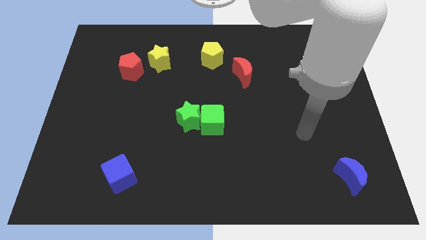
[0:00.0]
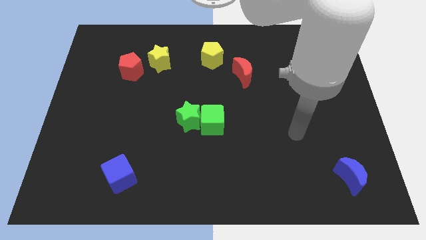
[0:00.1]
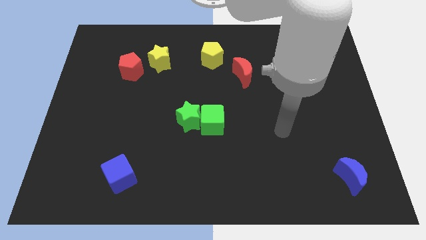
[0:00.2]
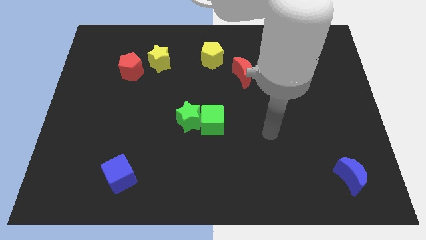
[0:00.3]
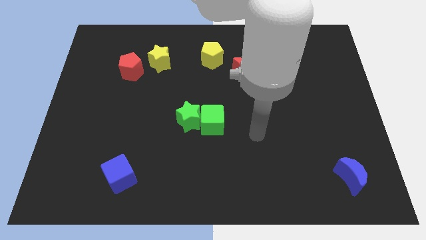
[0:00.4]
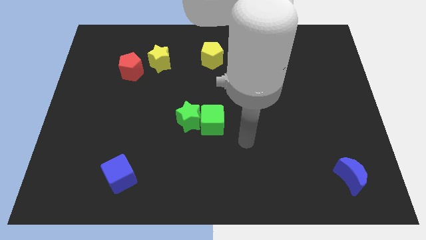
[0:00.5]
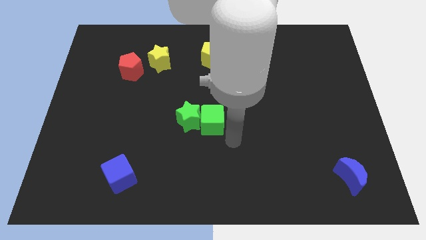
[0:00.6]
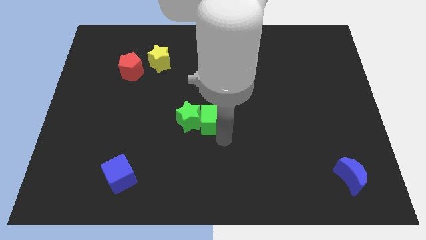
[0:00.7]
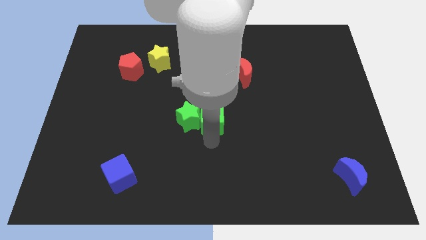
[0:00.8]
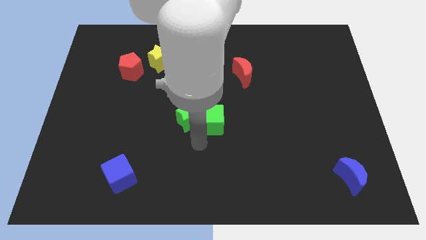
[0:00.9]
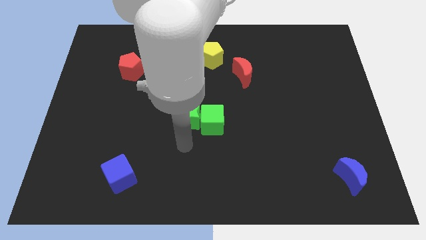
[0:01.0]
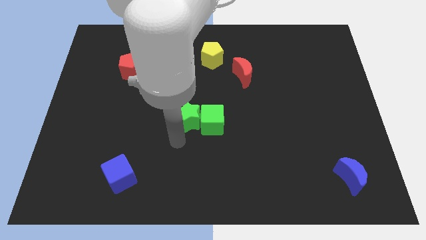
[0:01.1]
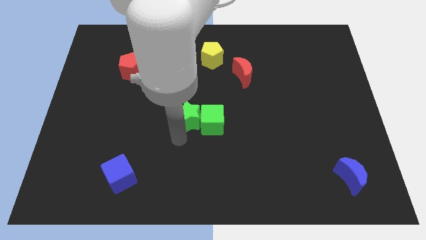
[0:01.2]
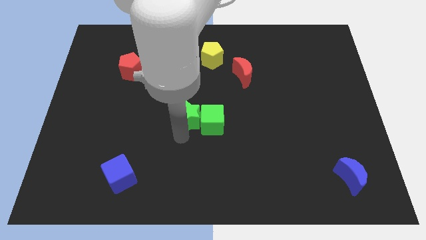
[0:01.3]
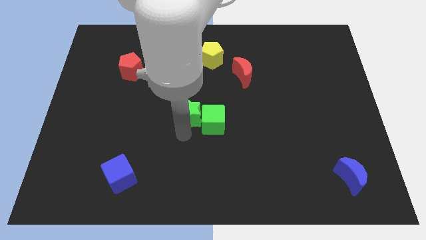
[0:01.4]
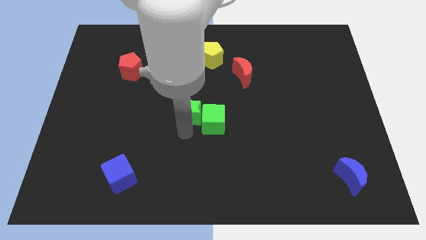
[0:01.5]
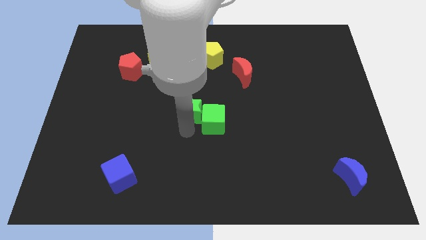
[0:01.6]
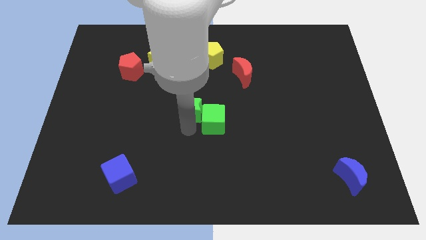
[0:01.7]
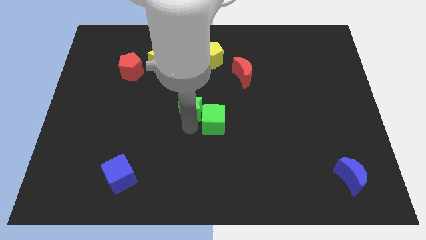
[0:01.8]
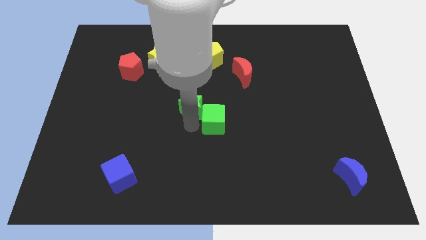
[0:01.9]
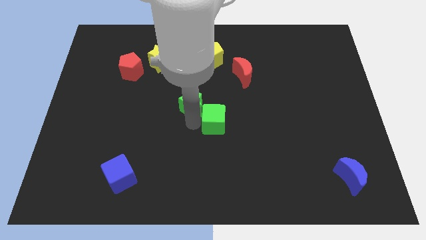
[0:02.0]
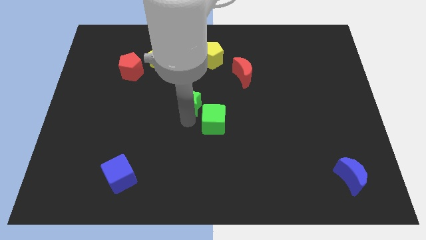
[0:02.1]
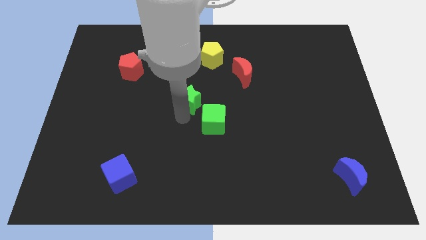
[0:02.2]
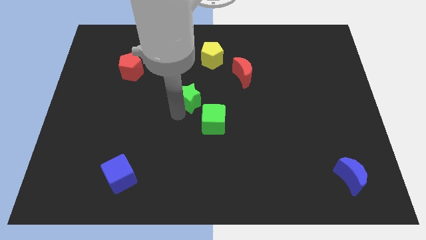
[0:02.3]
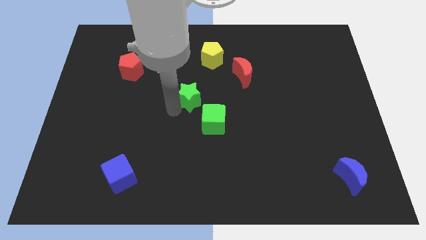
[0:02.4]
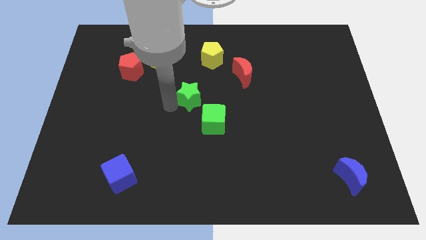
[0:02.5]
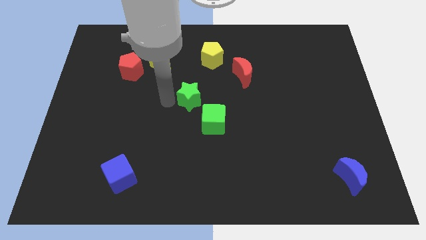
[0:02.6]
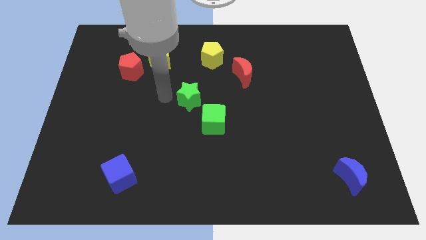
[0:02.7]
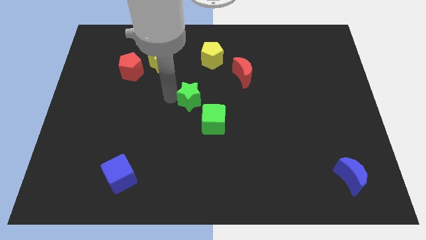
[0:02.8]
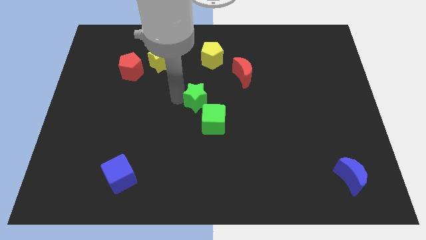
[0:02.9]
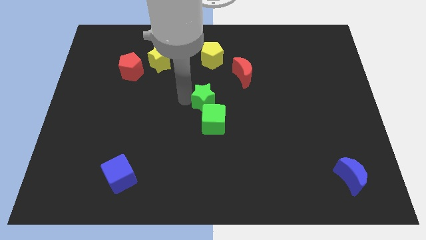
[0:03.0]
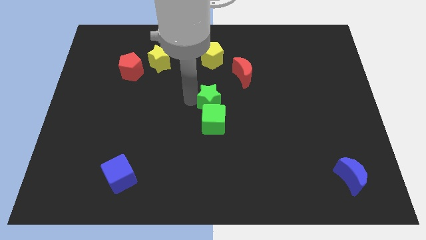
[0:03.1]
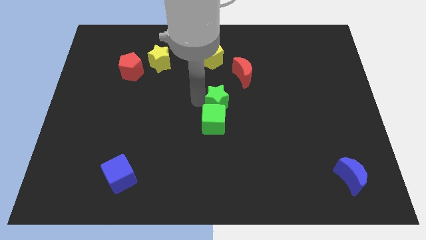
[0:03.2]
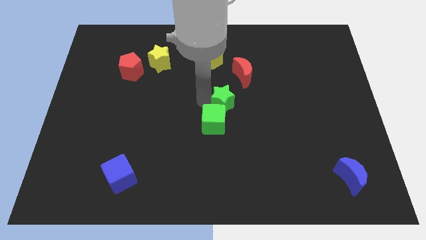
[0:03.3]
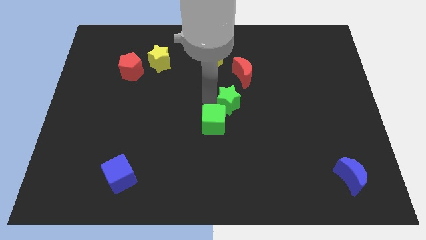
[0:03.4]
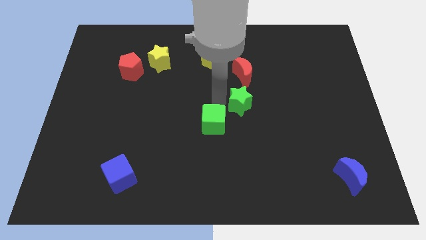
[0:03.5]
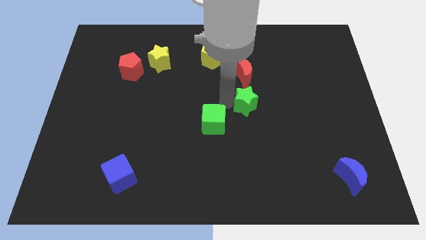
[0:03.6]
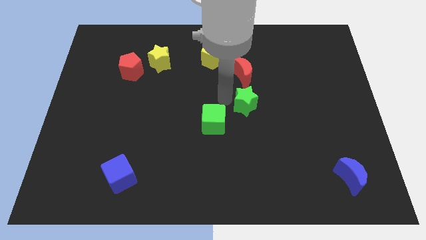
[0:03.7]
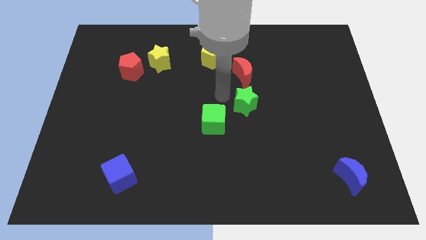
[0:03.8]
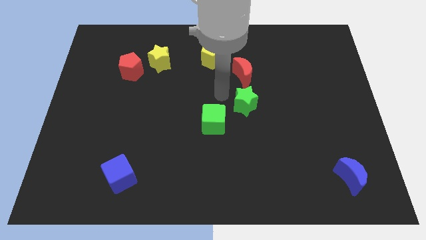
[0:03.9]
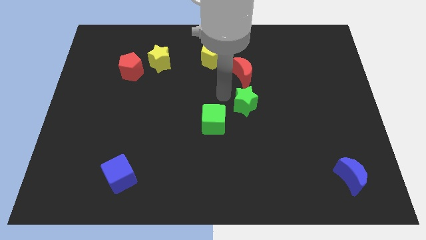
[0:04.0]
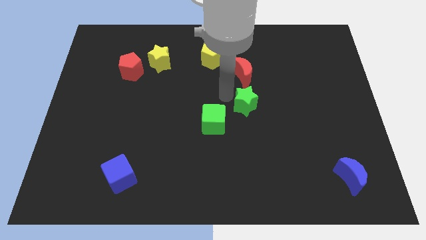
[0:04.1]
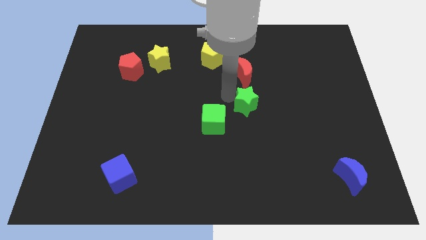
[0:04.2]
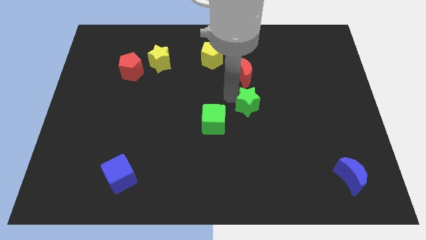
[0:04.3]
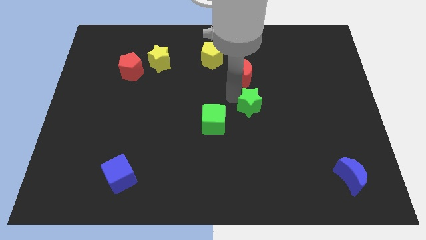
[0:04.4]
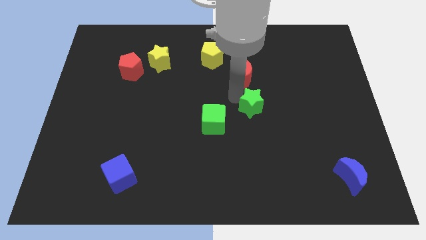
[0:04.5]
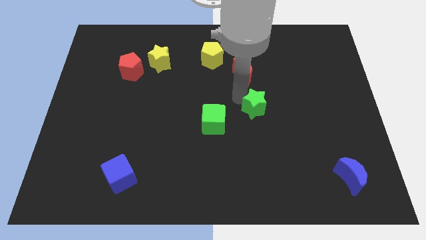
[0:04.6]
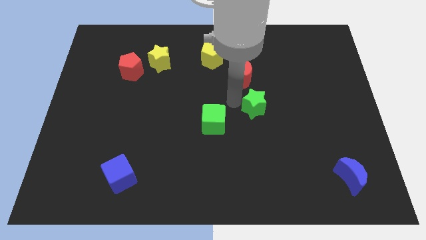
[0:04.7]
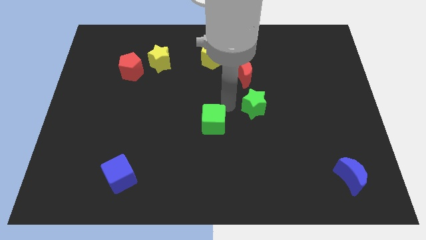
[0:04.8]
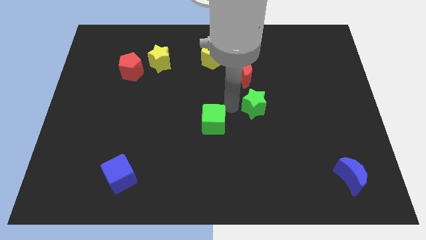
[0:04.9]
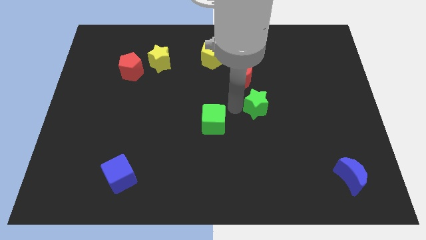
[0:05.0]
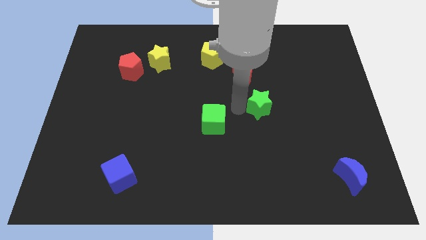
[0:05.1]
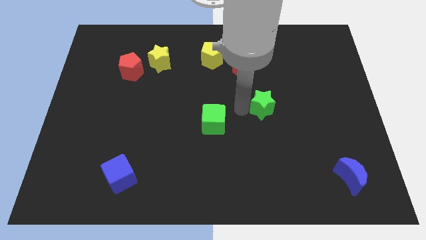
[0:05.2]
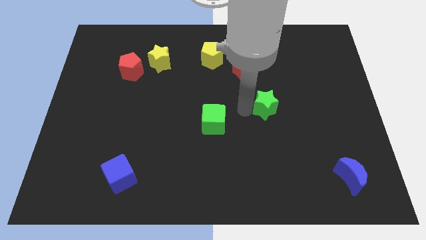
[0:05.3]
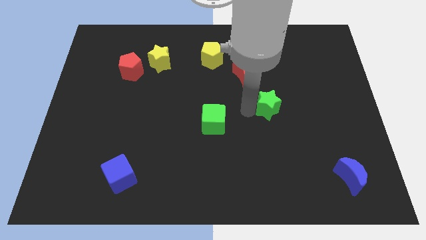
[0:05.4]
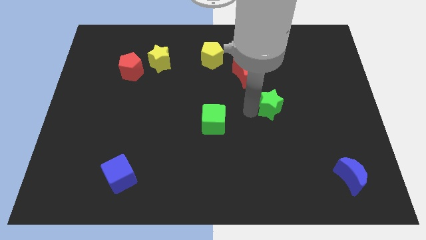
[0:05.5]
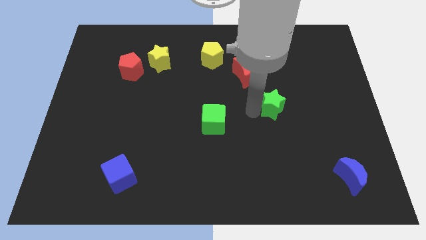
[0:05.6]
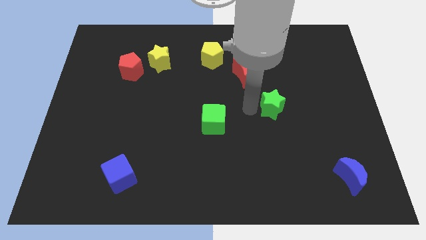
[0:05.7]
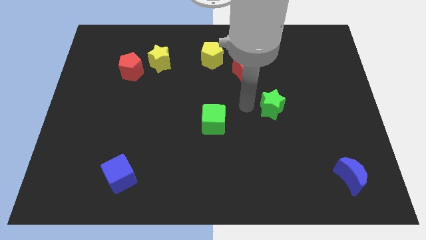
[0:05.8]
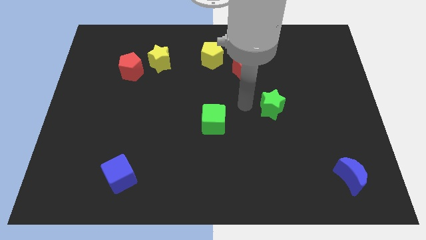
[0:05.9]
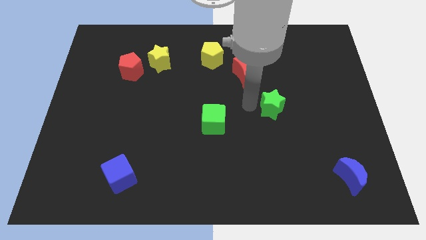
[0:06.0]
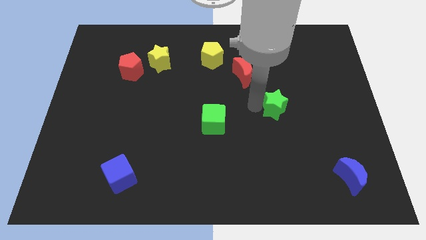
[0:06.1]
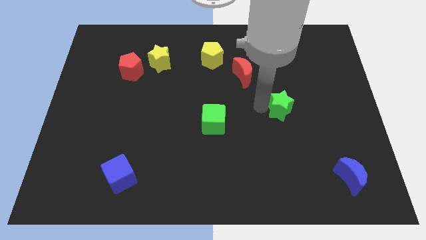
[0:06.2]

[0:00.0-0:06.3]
push the green star to the right

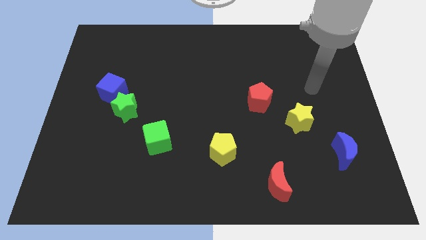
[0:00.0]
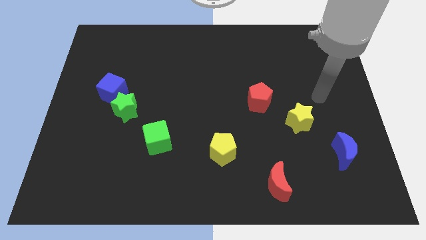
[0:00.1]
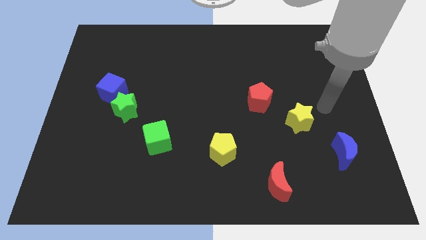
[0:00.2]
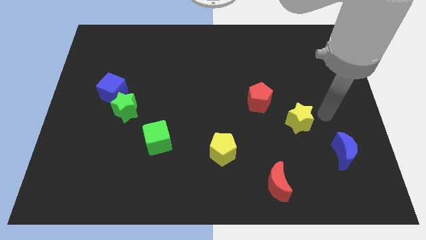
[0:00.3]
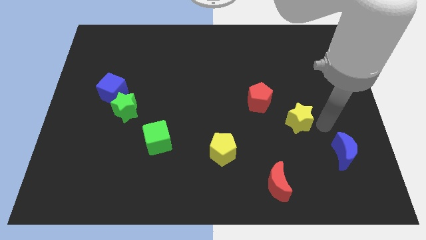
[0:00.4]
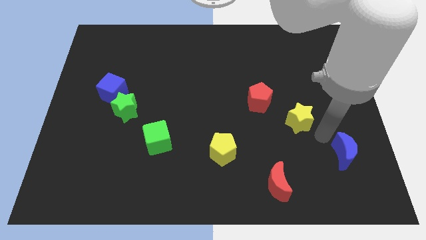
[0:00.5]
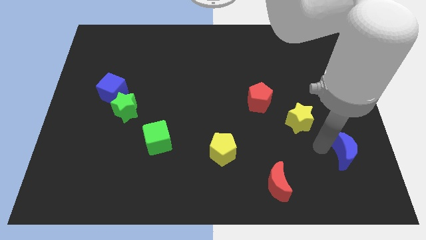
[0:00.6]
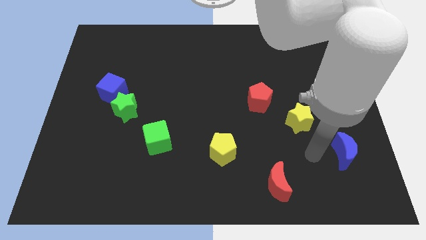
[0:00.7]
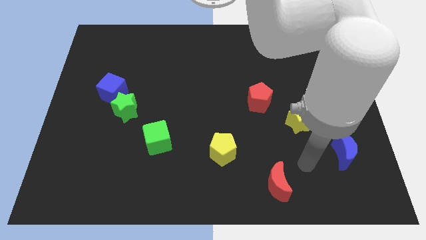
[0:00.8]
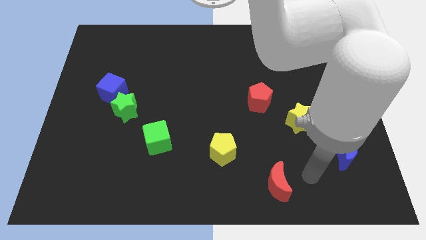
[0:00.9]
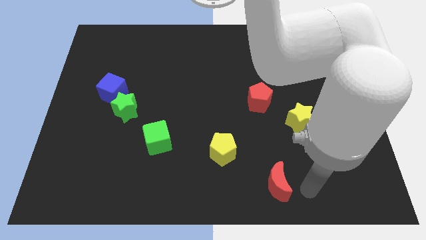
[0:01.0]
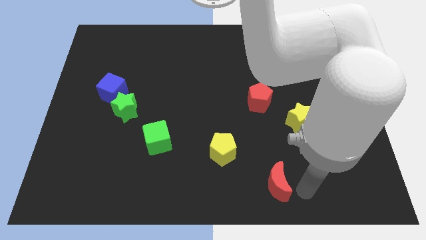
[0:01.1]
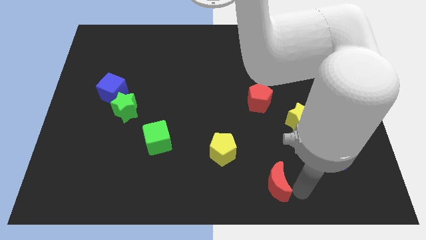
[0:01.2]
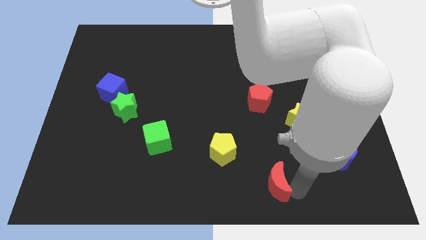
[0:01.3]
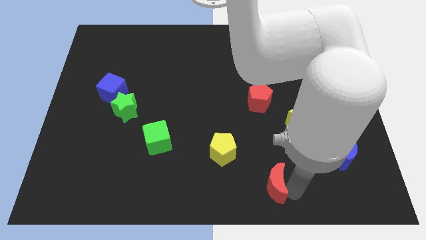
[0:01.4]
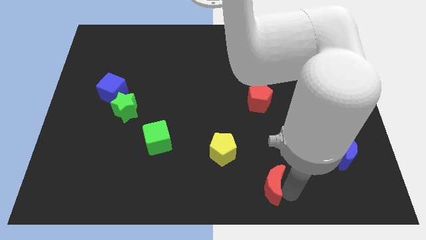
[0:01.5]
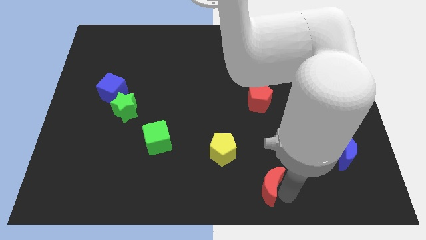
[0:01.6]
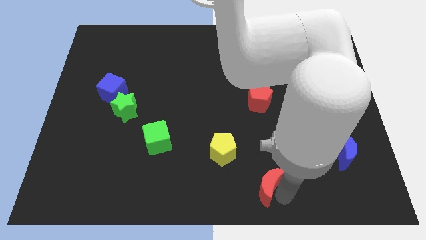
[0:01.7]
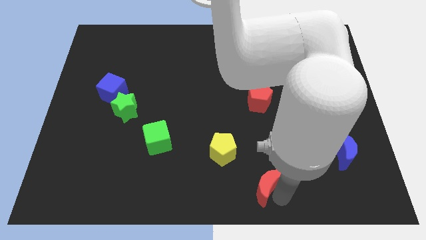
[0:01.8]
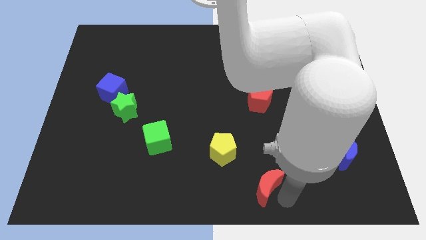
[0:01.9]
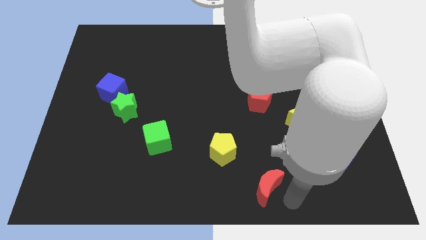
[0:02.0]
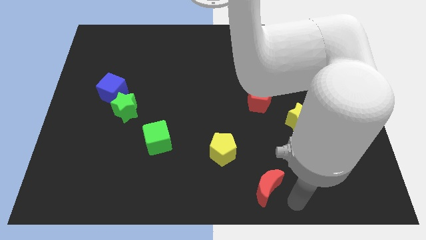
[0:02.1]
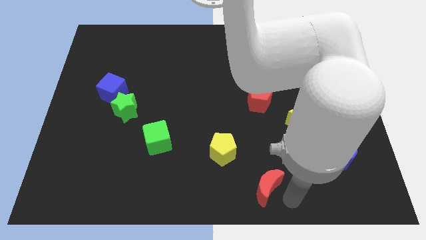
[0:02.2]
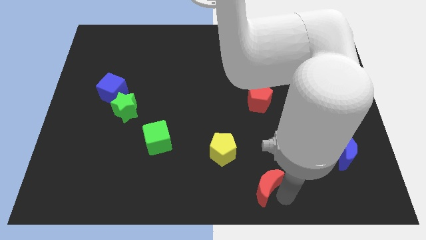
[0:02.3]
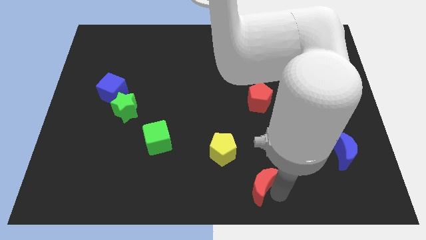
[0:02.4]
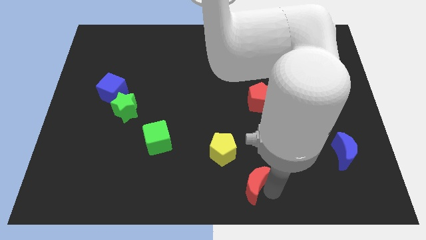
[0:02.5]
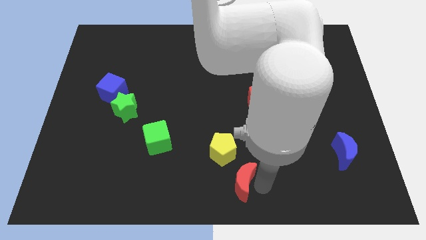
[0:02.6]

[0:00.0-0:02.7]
move the red moon to the left a little bit
